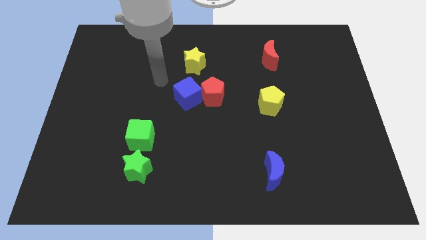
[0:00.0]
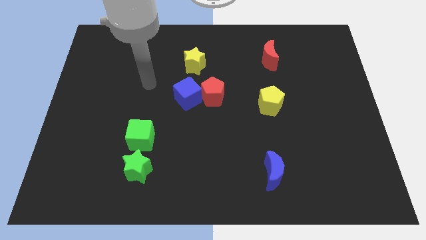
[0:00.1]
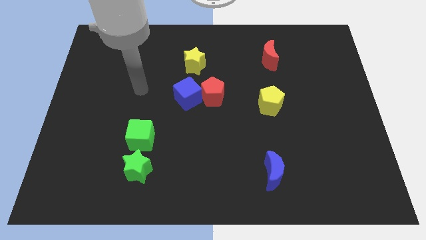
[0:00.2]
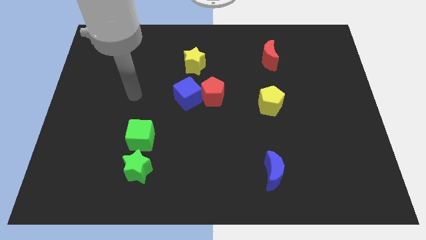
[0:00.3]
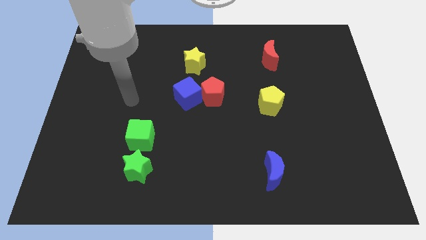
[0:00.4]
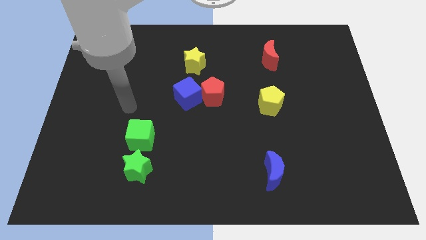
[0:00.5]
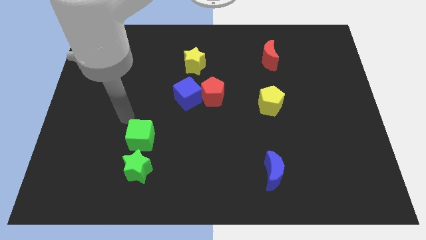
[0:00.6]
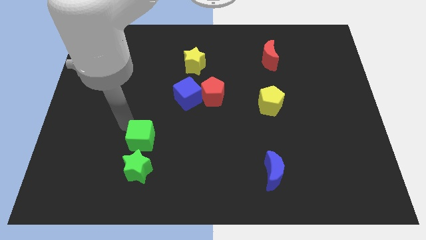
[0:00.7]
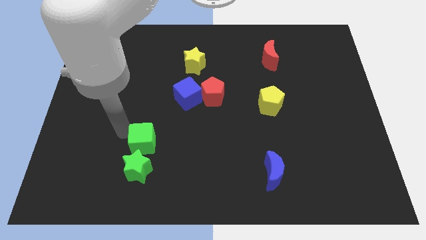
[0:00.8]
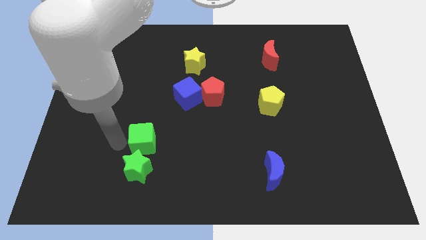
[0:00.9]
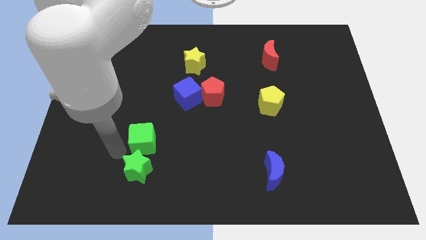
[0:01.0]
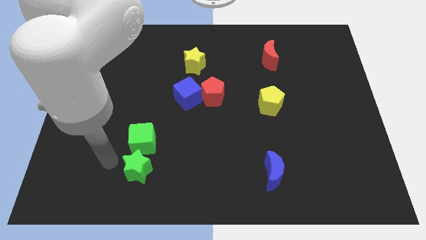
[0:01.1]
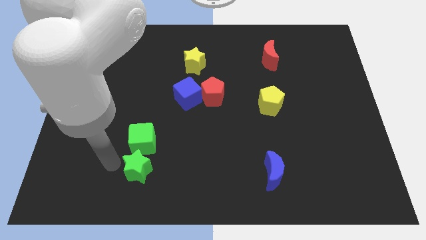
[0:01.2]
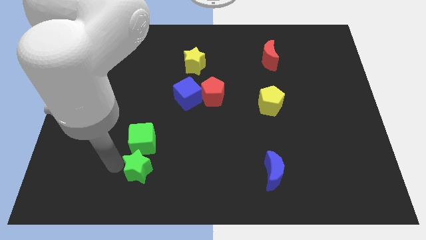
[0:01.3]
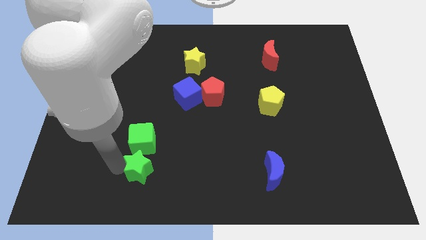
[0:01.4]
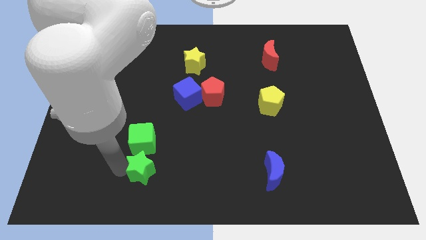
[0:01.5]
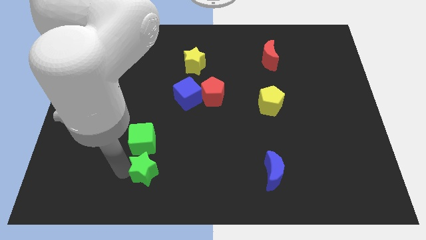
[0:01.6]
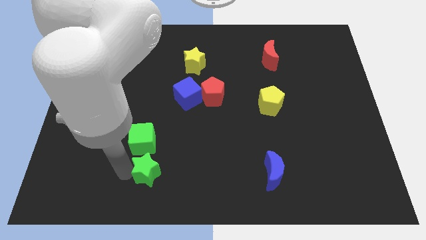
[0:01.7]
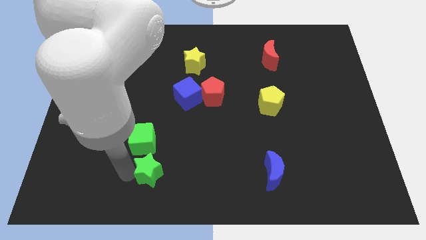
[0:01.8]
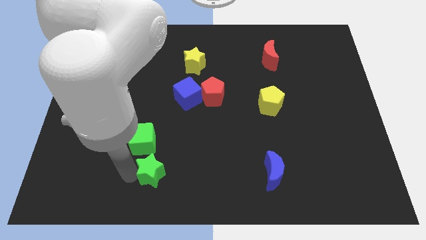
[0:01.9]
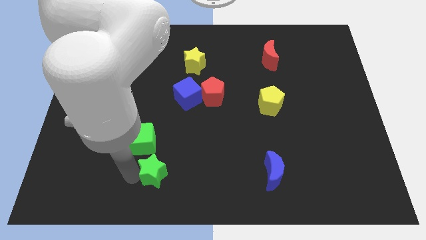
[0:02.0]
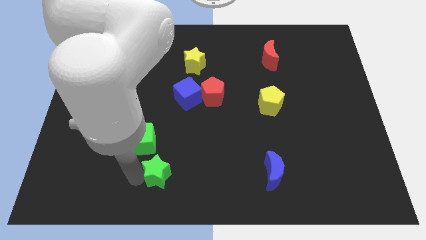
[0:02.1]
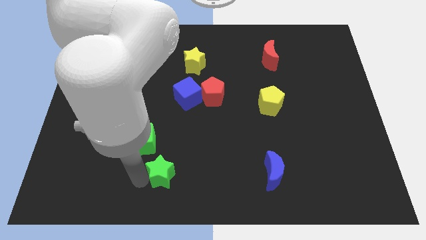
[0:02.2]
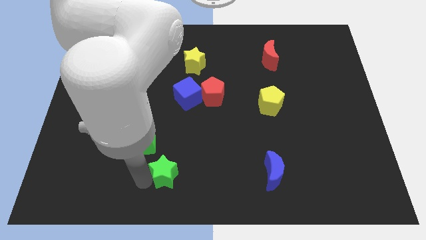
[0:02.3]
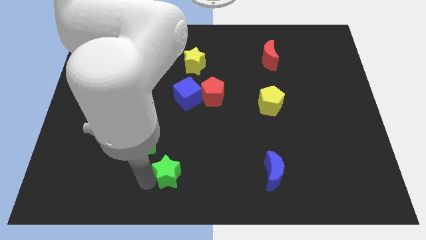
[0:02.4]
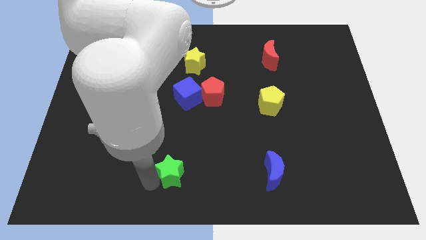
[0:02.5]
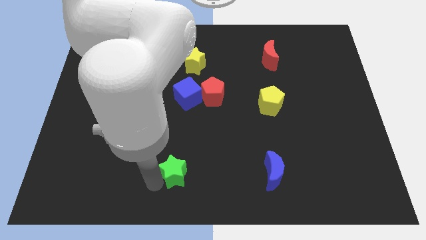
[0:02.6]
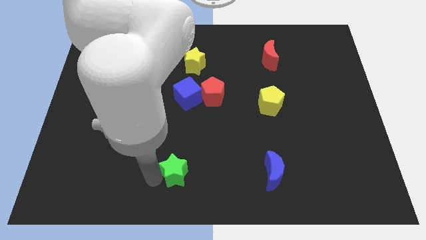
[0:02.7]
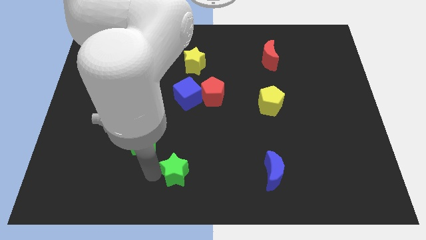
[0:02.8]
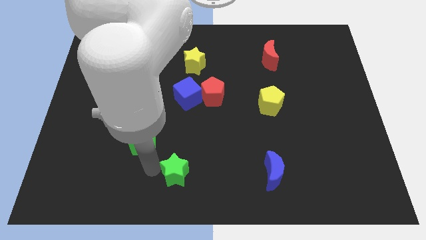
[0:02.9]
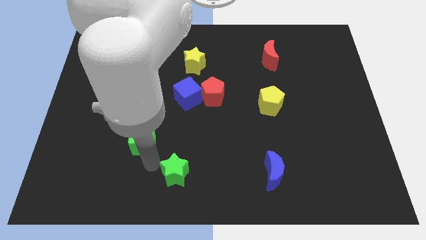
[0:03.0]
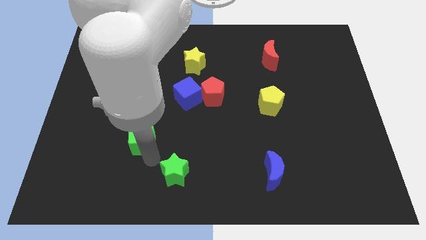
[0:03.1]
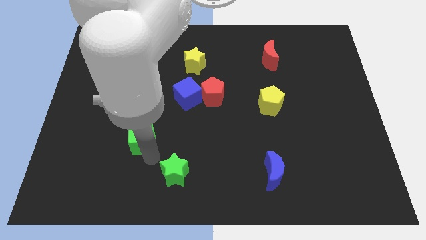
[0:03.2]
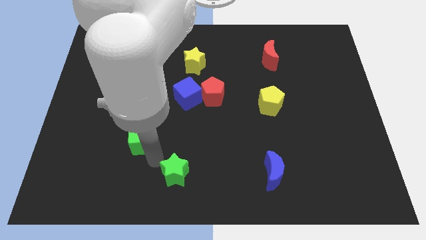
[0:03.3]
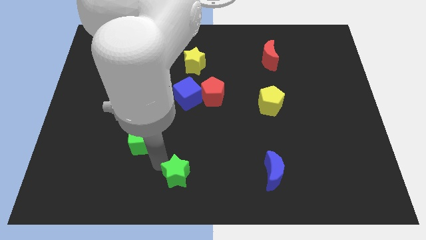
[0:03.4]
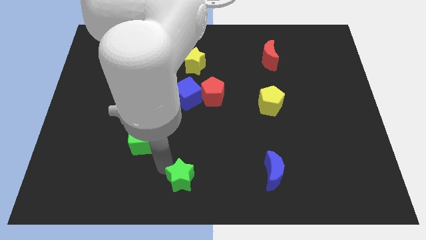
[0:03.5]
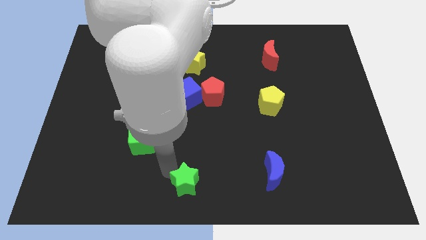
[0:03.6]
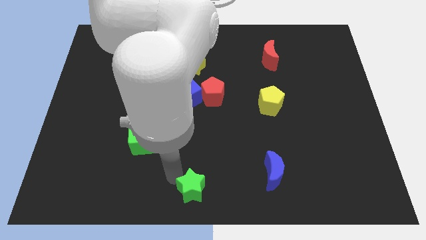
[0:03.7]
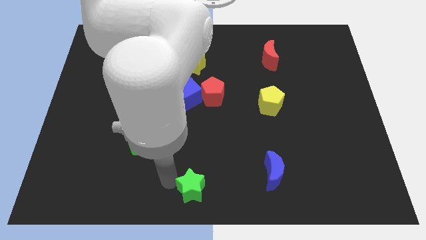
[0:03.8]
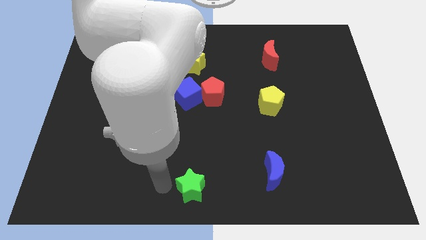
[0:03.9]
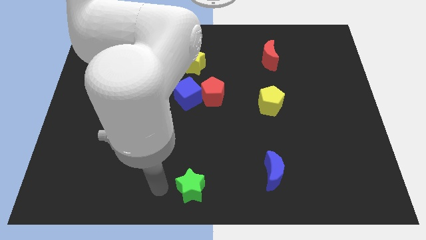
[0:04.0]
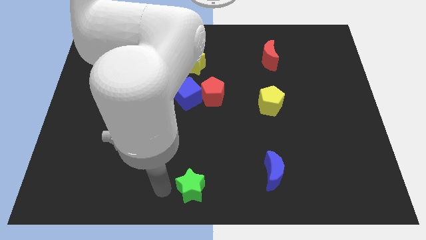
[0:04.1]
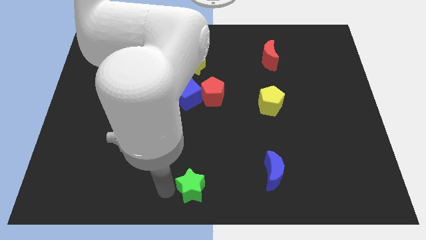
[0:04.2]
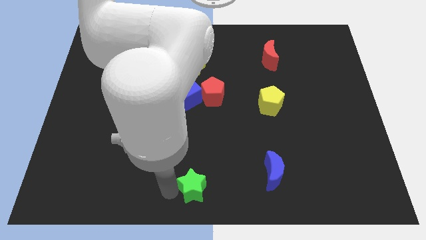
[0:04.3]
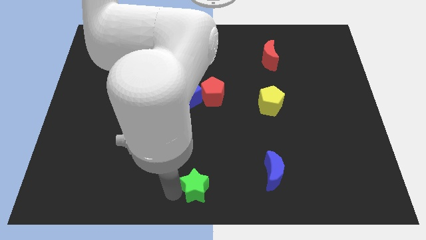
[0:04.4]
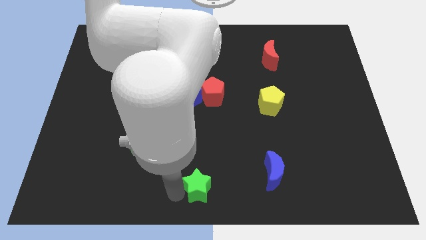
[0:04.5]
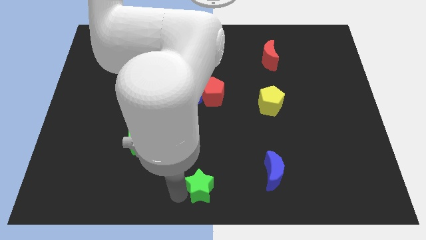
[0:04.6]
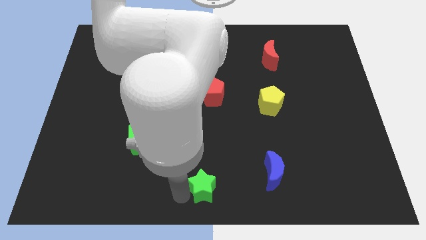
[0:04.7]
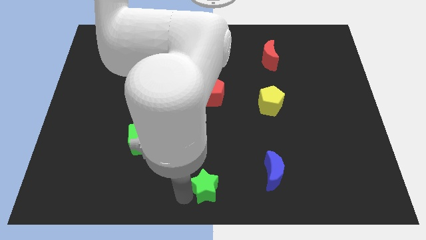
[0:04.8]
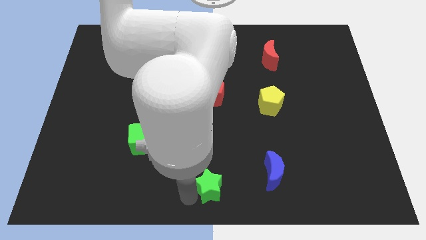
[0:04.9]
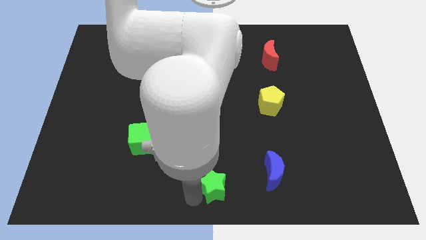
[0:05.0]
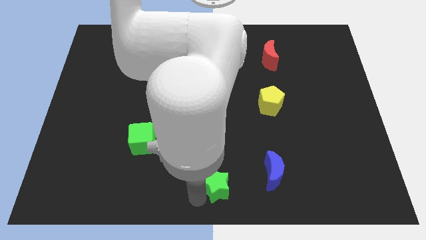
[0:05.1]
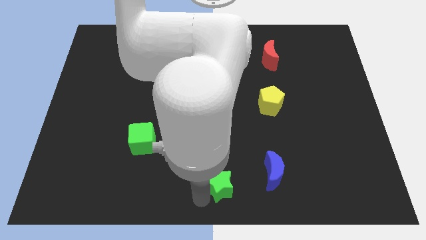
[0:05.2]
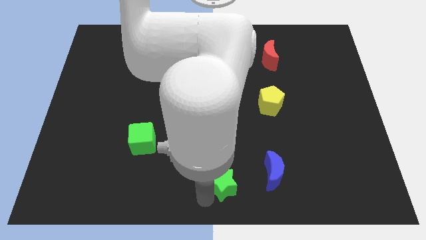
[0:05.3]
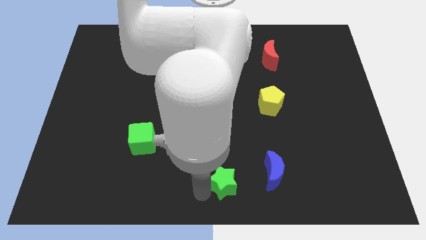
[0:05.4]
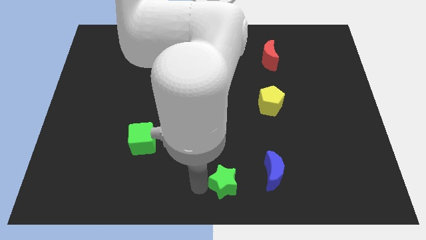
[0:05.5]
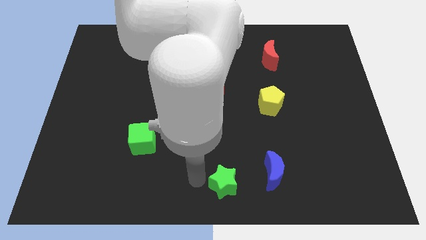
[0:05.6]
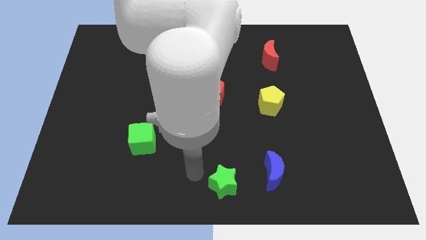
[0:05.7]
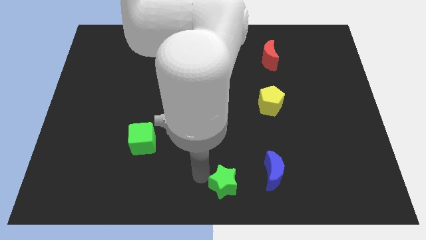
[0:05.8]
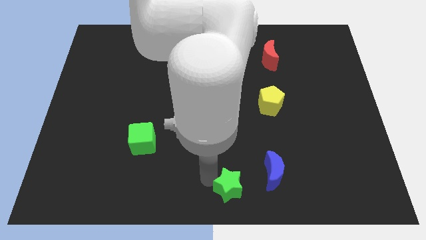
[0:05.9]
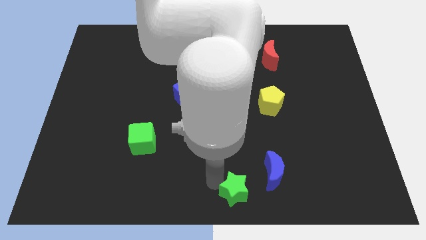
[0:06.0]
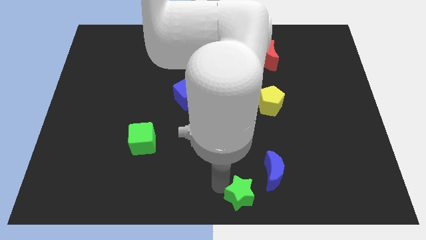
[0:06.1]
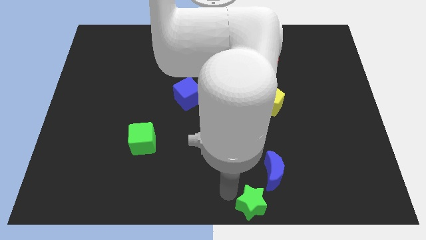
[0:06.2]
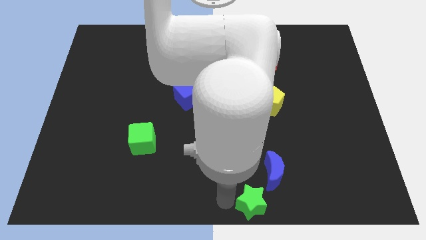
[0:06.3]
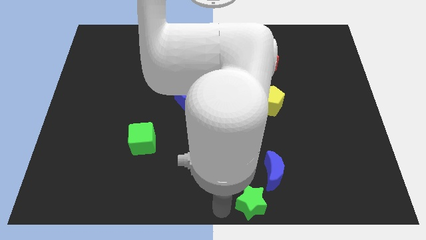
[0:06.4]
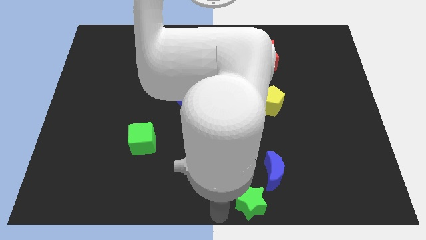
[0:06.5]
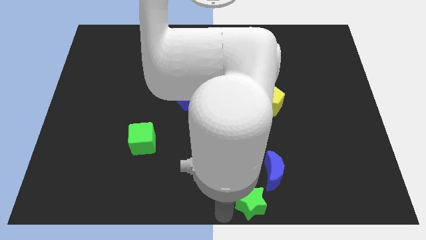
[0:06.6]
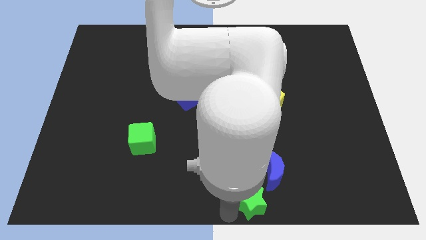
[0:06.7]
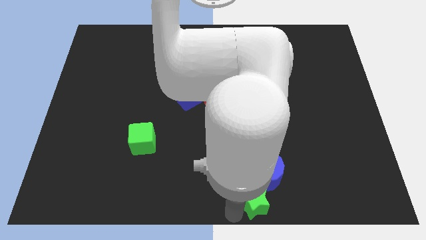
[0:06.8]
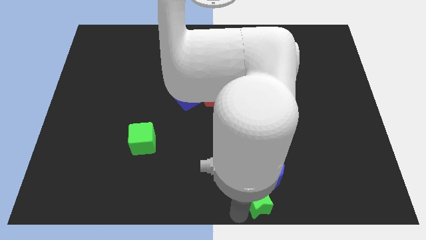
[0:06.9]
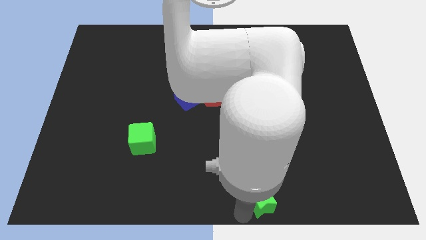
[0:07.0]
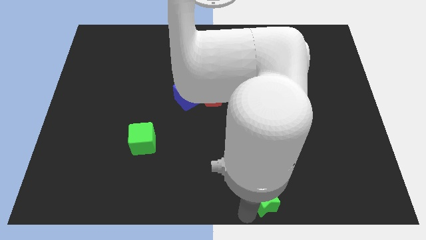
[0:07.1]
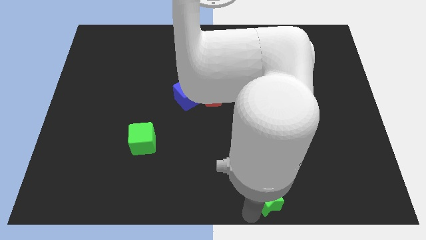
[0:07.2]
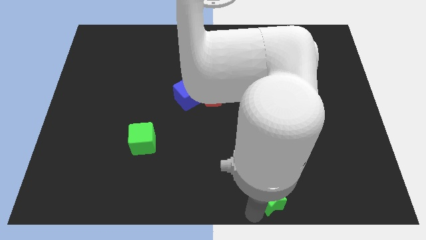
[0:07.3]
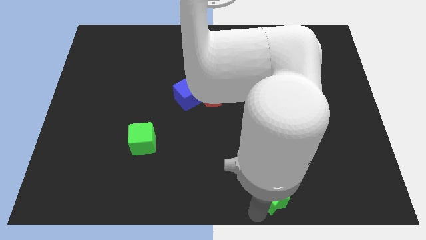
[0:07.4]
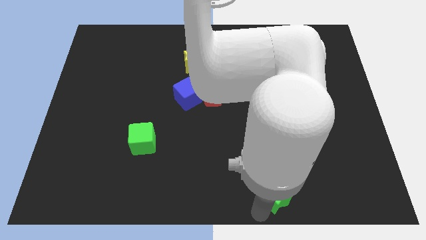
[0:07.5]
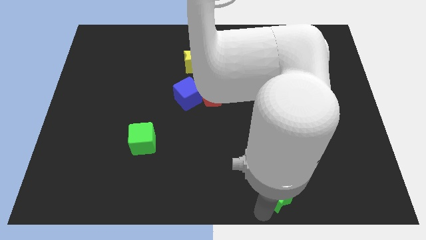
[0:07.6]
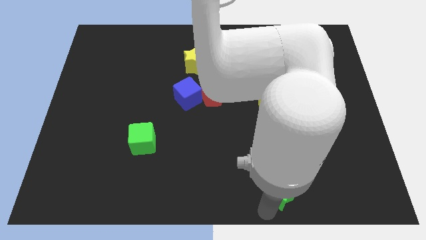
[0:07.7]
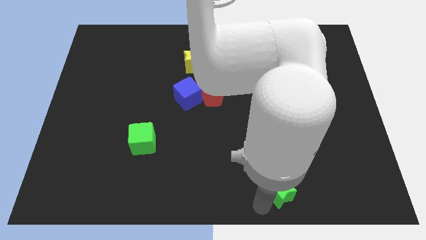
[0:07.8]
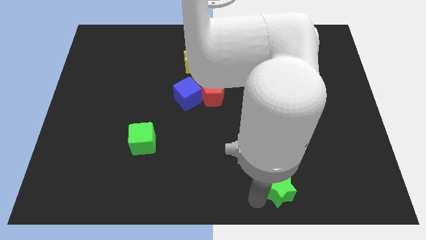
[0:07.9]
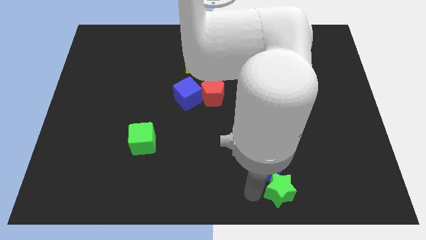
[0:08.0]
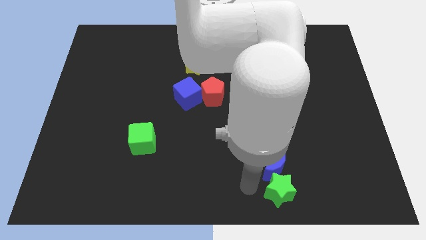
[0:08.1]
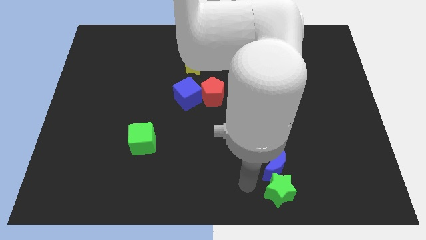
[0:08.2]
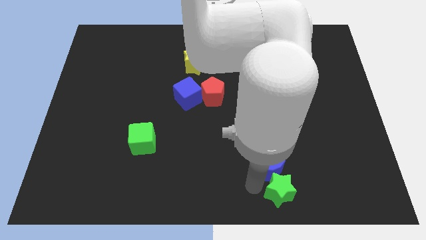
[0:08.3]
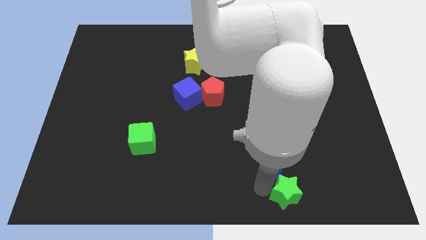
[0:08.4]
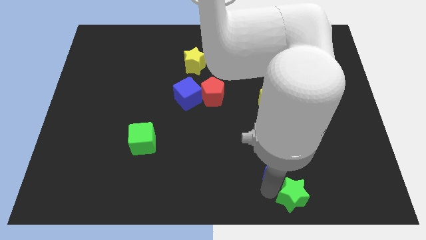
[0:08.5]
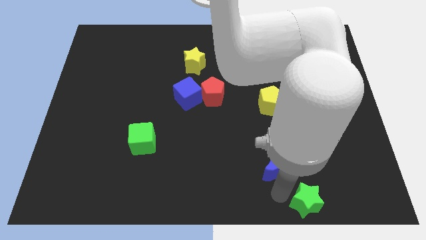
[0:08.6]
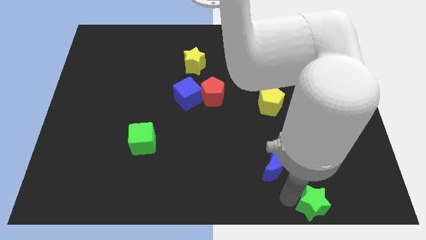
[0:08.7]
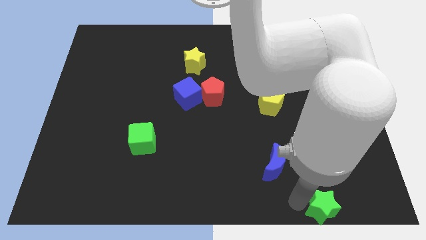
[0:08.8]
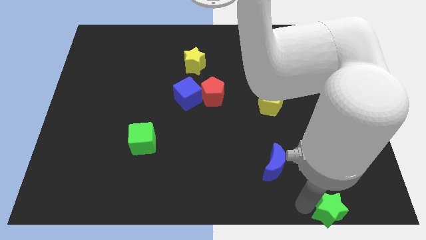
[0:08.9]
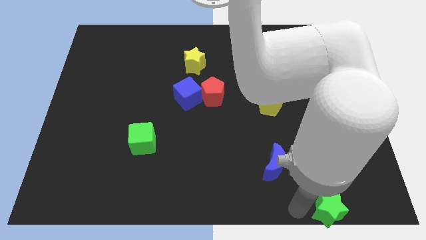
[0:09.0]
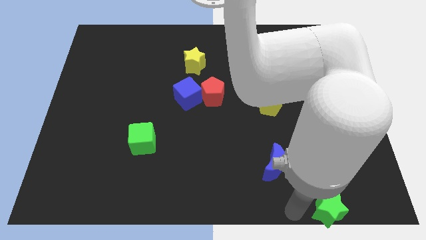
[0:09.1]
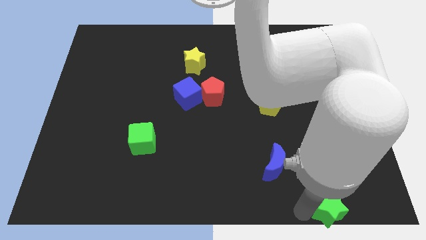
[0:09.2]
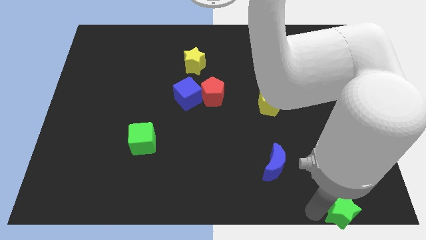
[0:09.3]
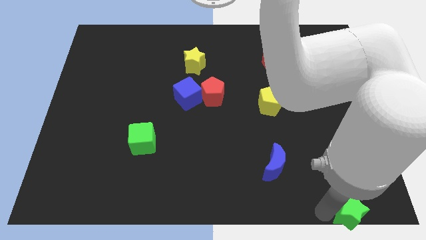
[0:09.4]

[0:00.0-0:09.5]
move the green star to the bottom right
